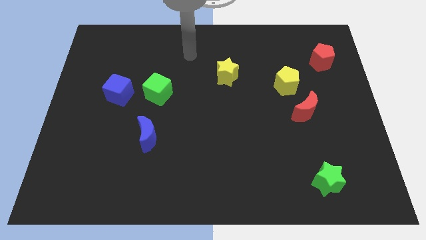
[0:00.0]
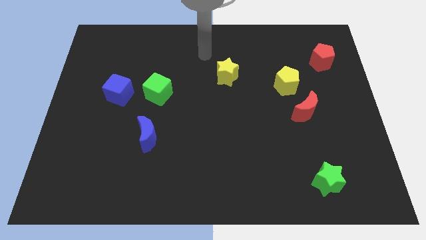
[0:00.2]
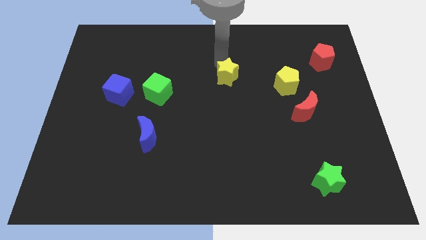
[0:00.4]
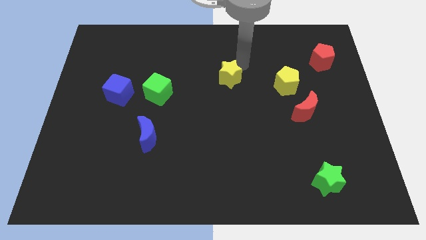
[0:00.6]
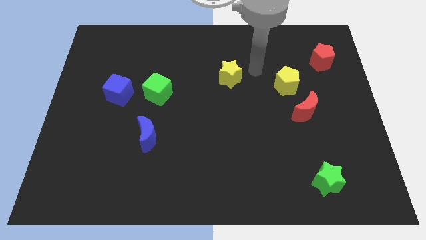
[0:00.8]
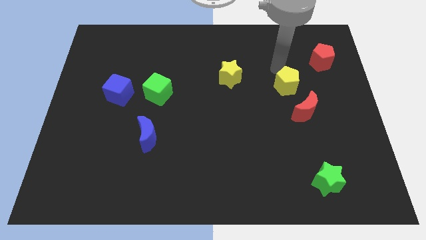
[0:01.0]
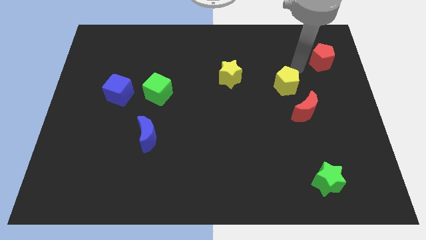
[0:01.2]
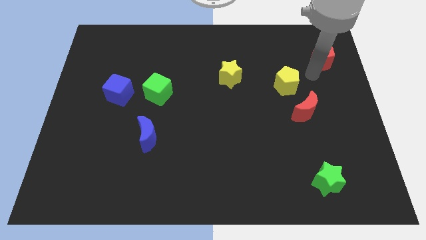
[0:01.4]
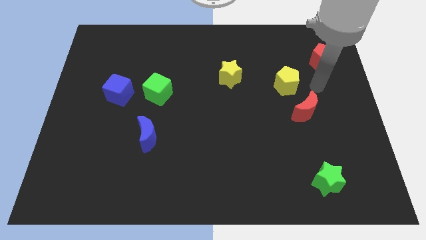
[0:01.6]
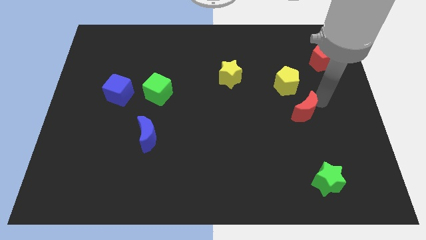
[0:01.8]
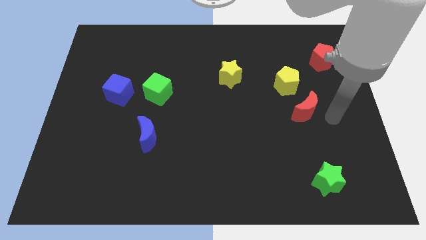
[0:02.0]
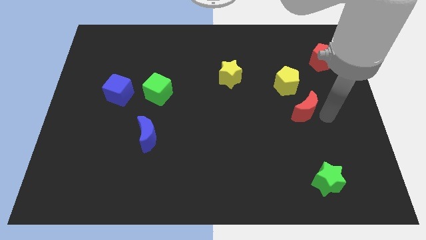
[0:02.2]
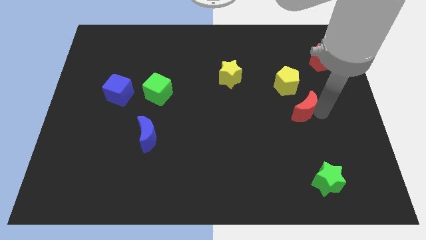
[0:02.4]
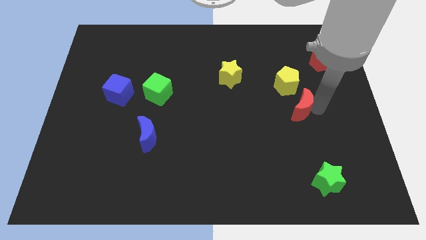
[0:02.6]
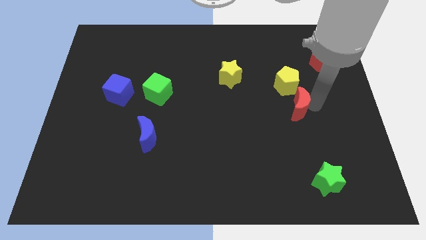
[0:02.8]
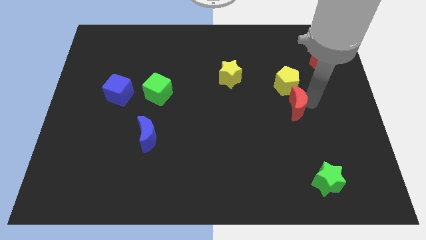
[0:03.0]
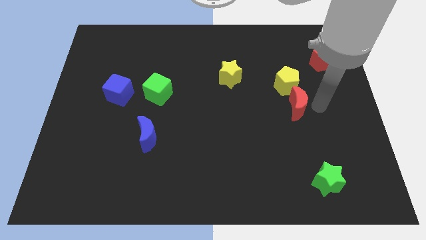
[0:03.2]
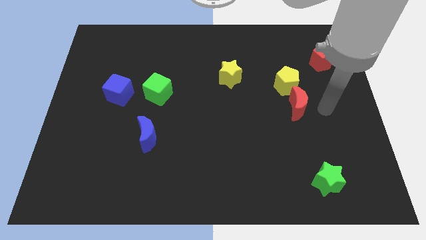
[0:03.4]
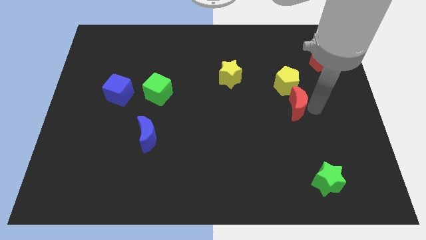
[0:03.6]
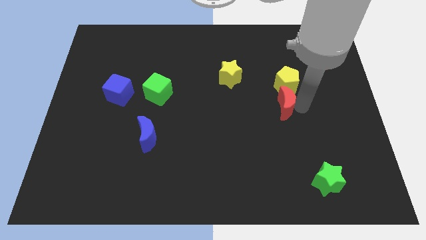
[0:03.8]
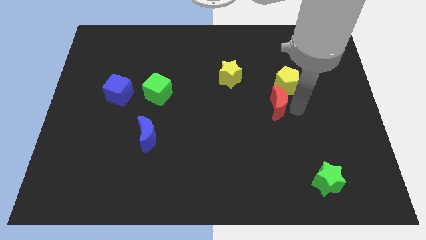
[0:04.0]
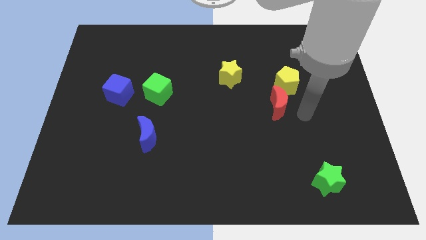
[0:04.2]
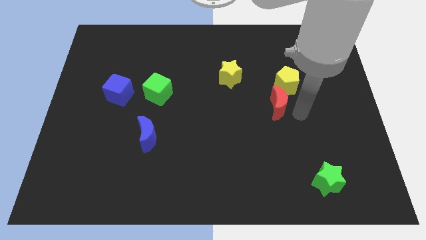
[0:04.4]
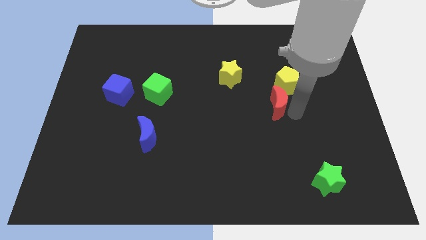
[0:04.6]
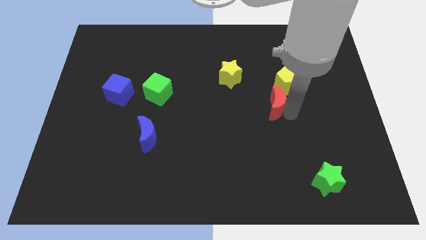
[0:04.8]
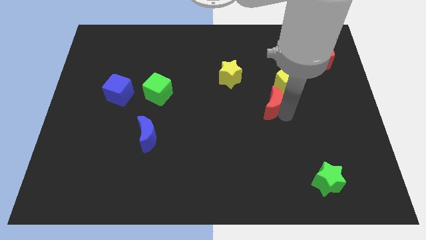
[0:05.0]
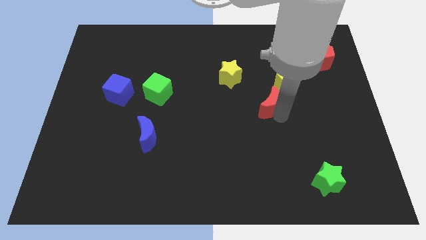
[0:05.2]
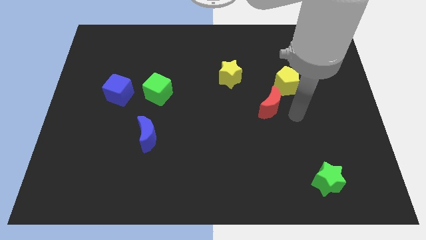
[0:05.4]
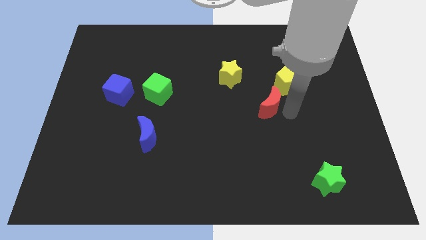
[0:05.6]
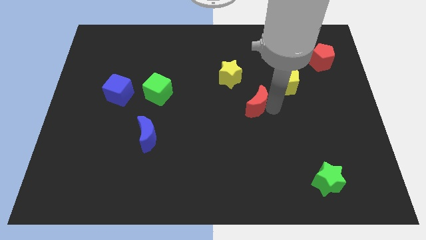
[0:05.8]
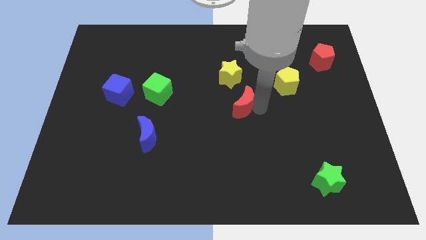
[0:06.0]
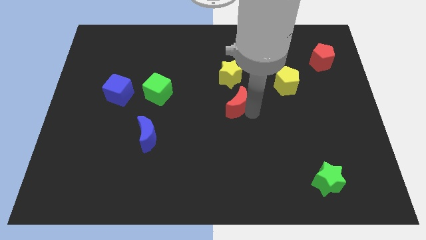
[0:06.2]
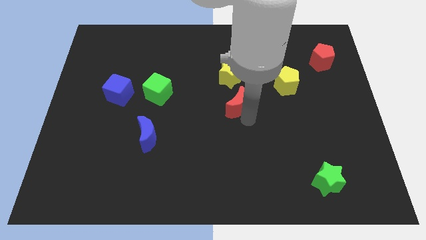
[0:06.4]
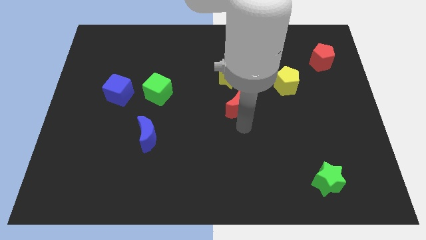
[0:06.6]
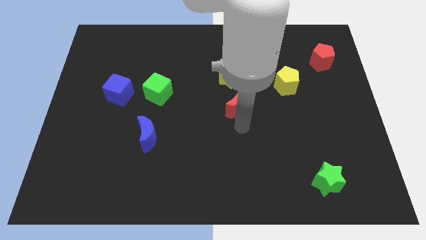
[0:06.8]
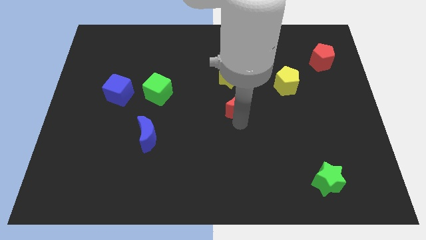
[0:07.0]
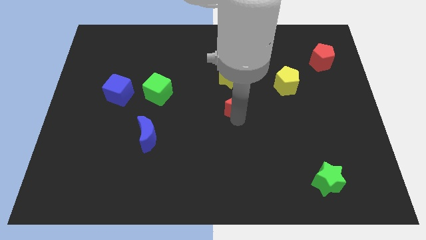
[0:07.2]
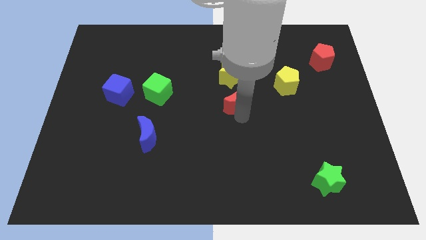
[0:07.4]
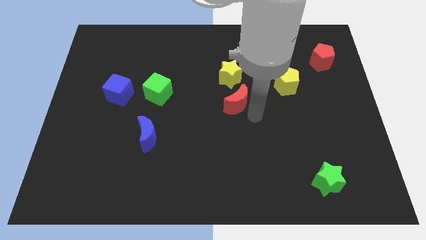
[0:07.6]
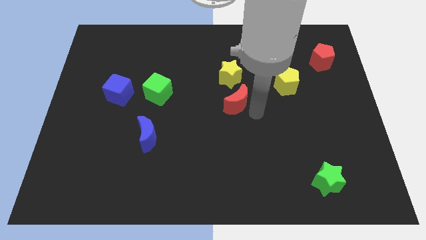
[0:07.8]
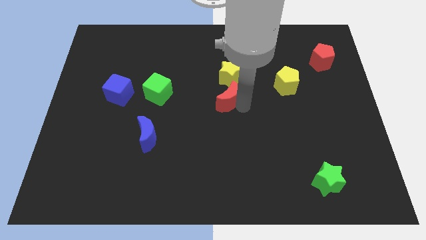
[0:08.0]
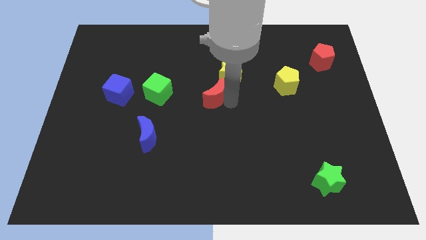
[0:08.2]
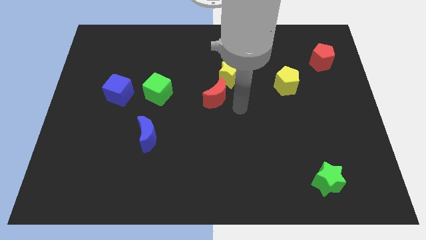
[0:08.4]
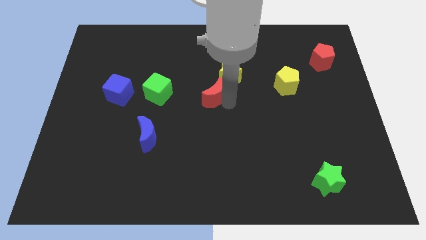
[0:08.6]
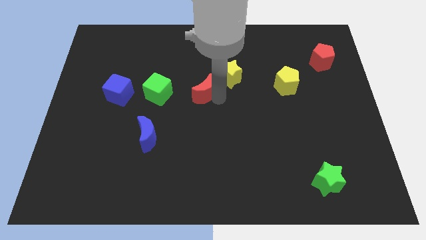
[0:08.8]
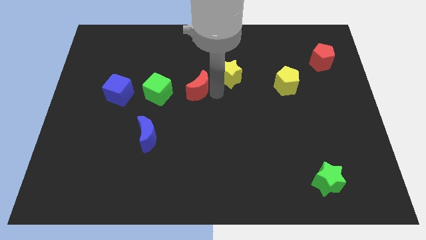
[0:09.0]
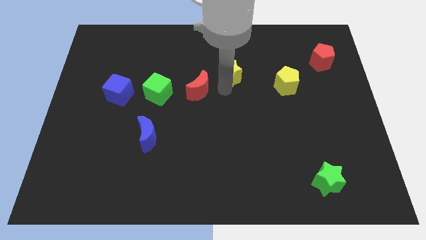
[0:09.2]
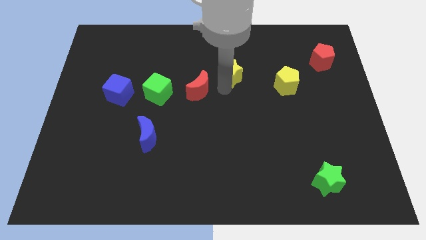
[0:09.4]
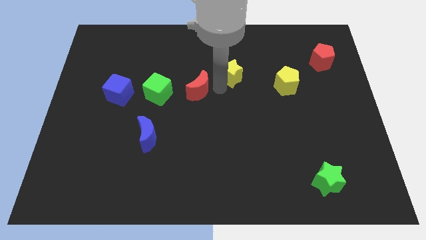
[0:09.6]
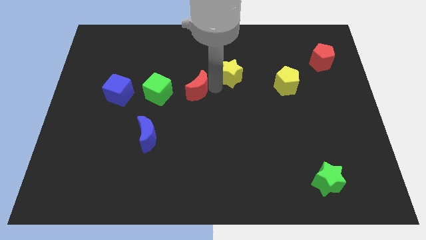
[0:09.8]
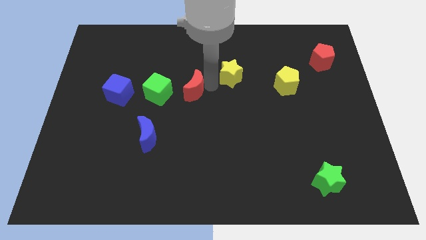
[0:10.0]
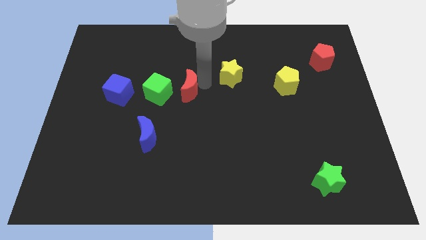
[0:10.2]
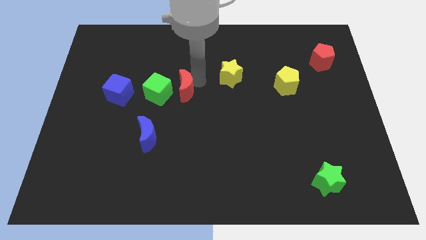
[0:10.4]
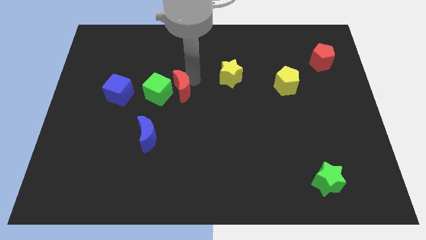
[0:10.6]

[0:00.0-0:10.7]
slide the red moon close to the green cube

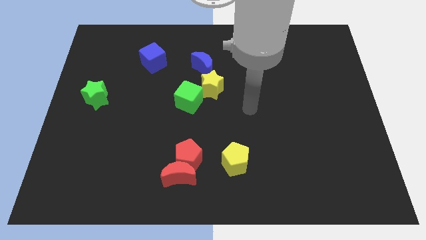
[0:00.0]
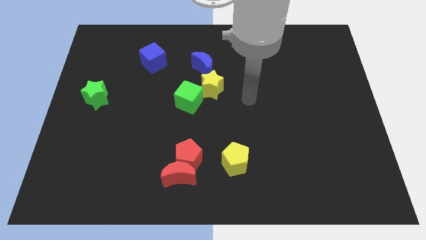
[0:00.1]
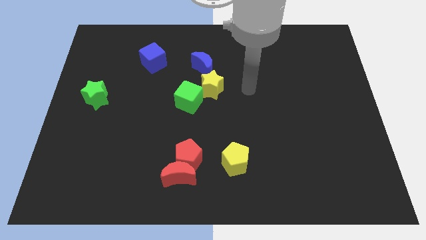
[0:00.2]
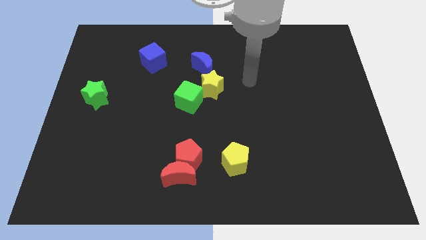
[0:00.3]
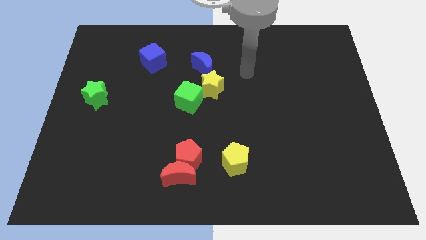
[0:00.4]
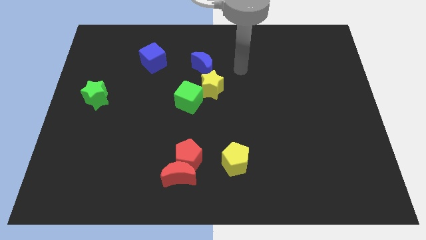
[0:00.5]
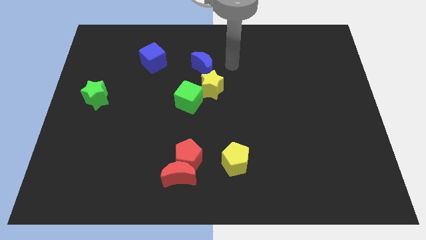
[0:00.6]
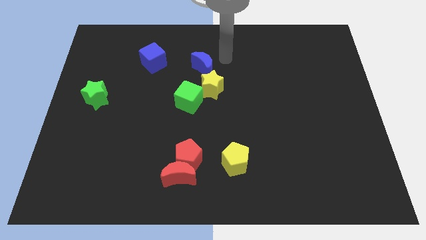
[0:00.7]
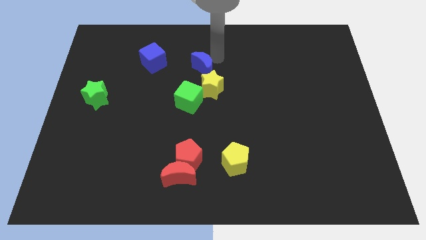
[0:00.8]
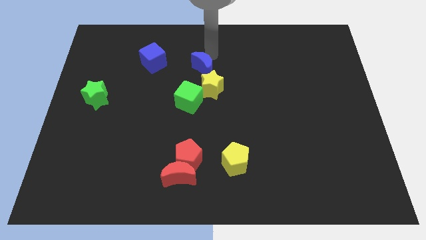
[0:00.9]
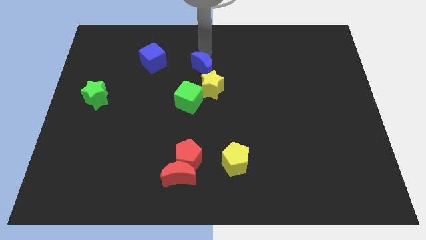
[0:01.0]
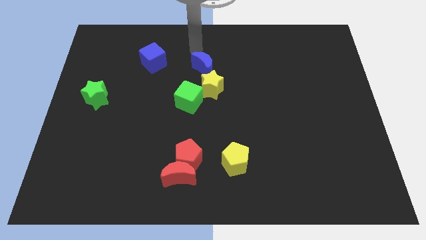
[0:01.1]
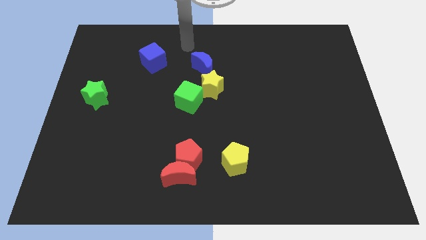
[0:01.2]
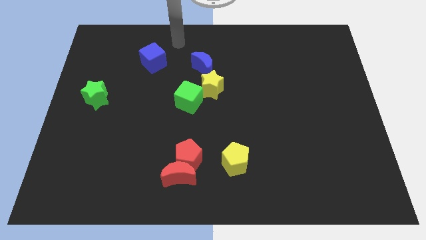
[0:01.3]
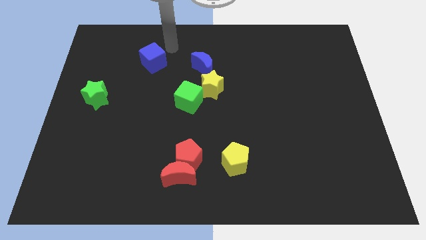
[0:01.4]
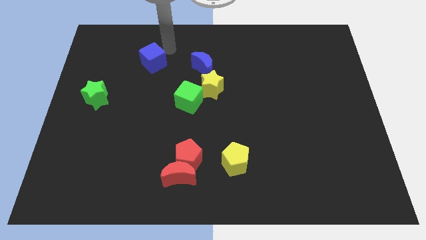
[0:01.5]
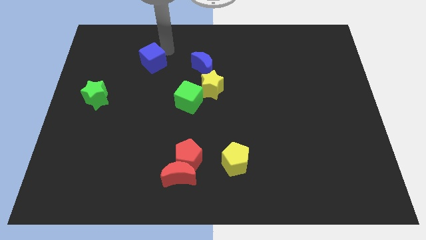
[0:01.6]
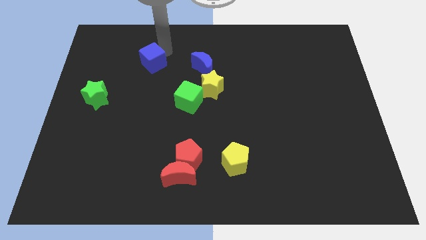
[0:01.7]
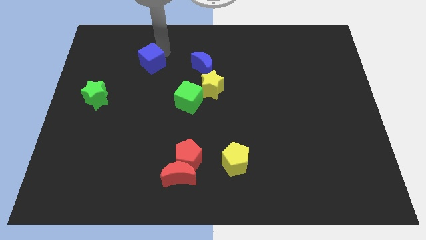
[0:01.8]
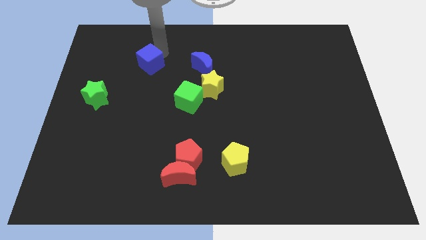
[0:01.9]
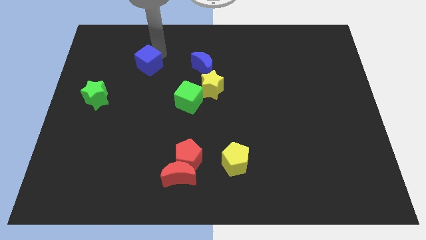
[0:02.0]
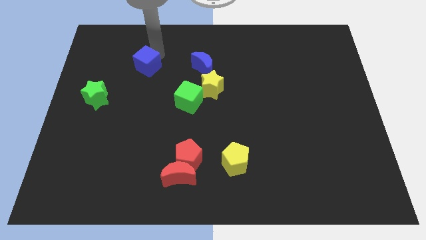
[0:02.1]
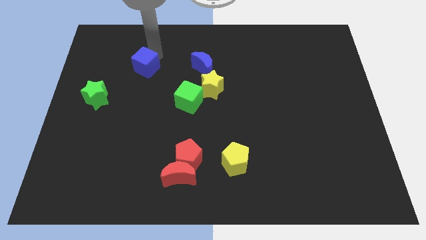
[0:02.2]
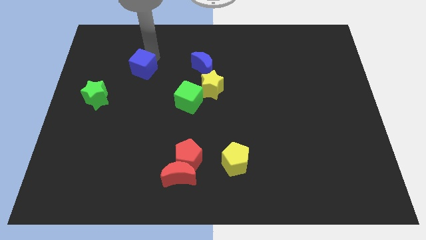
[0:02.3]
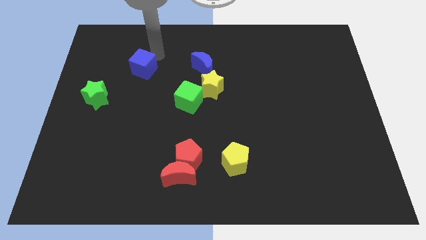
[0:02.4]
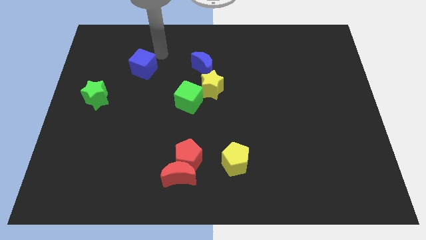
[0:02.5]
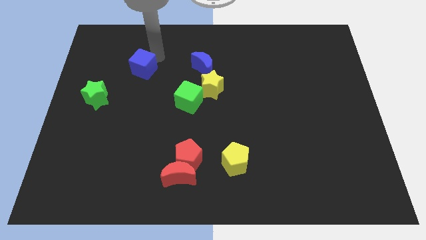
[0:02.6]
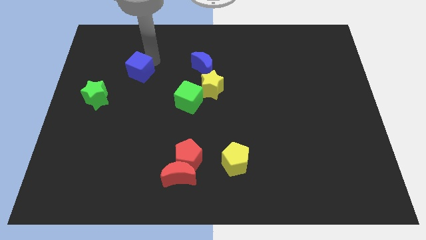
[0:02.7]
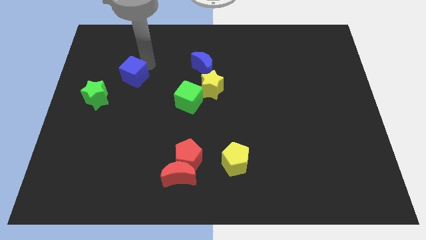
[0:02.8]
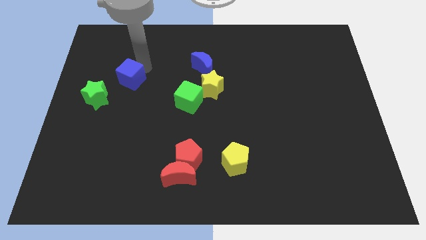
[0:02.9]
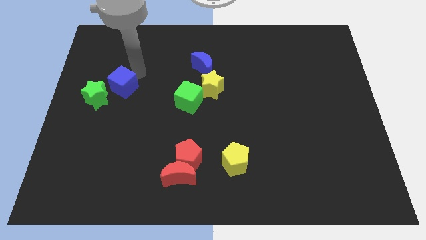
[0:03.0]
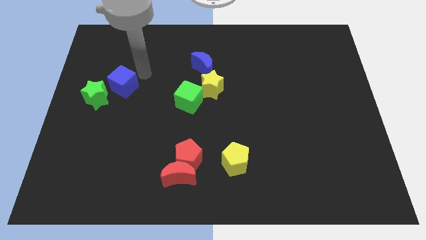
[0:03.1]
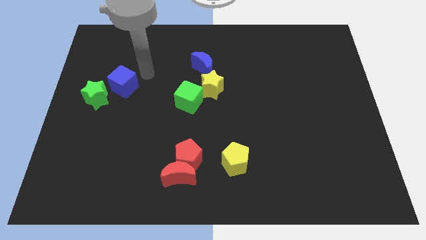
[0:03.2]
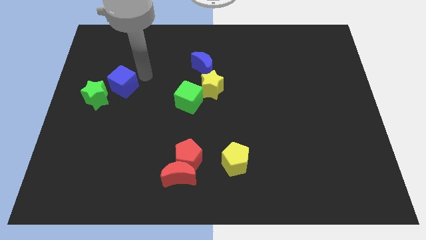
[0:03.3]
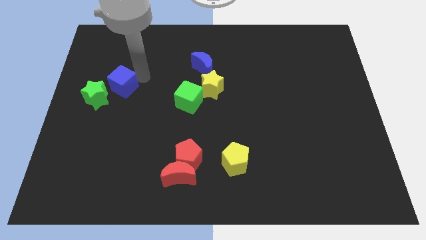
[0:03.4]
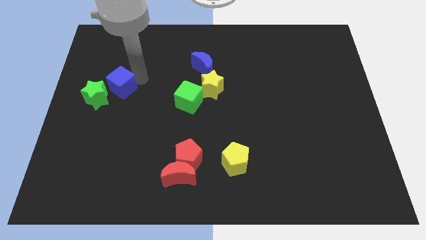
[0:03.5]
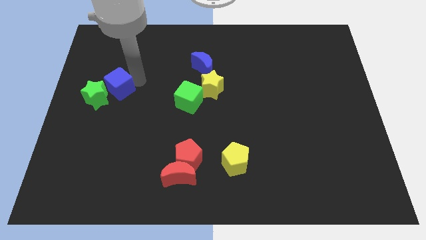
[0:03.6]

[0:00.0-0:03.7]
move the blue cube towards the green star
